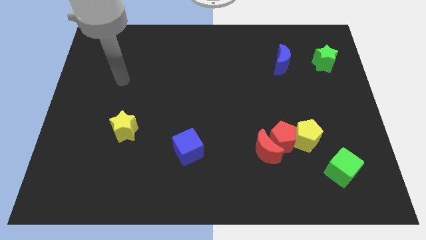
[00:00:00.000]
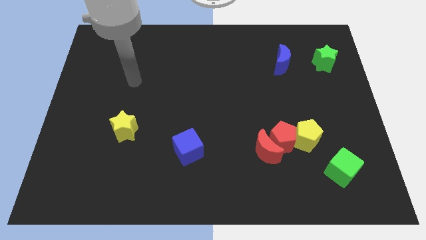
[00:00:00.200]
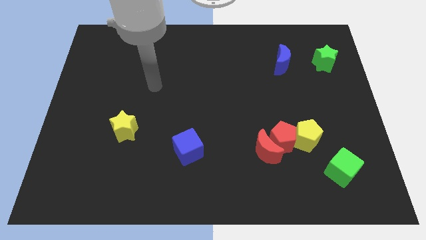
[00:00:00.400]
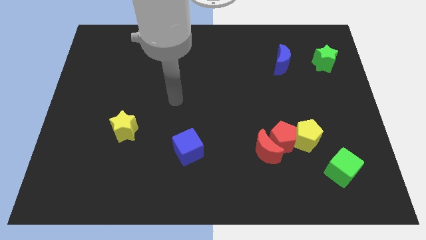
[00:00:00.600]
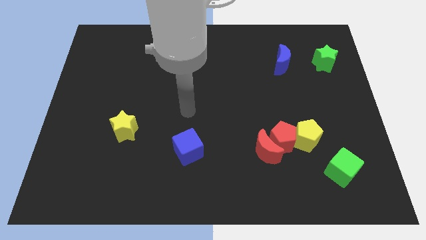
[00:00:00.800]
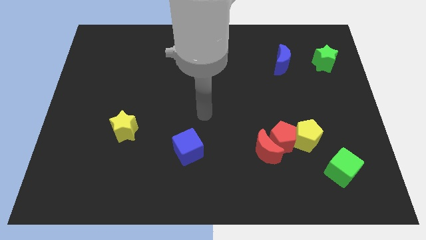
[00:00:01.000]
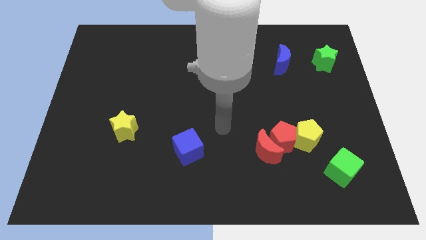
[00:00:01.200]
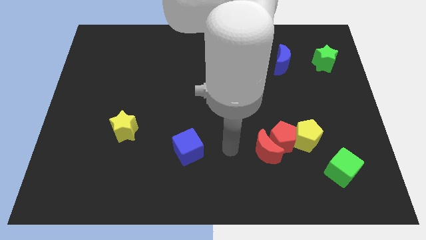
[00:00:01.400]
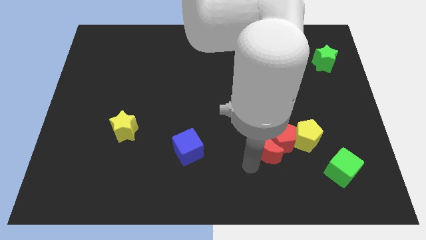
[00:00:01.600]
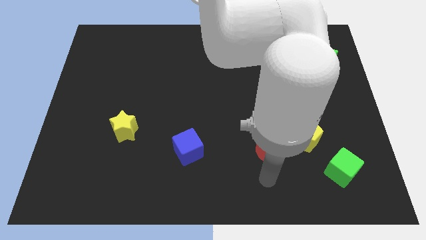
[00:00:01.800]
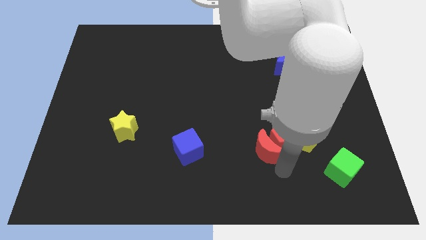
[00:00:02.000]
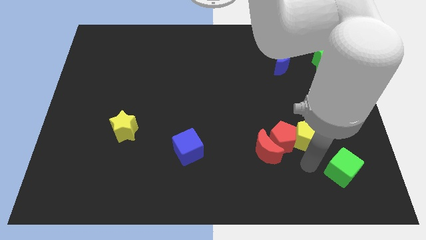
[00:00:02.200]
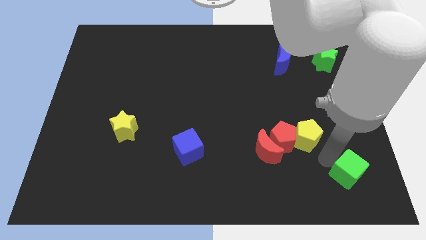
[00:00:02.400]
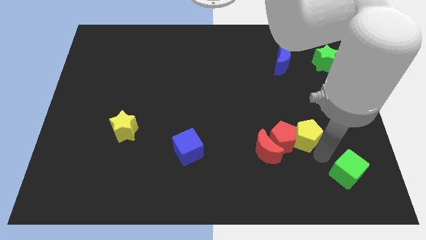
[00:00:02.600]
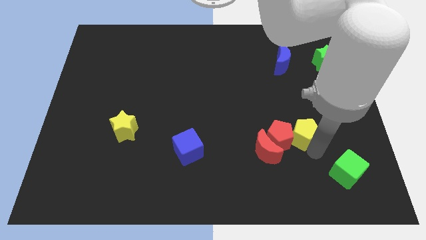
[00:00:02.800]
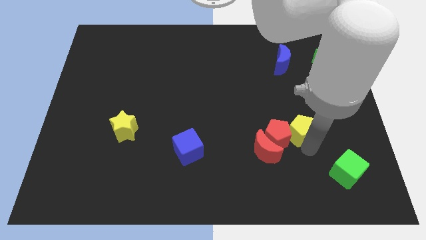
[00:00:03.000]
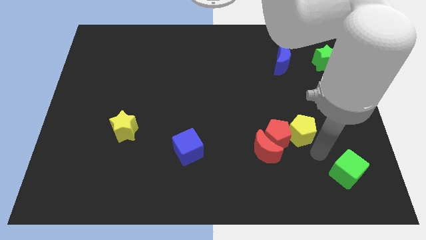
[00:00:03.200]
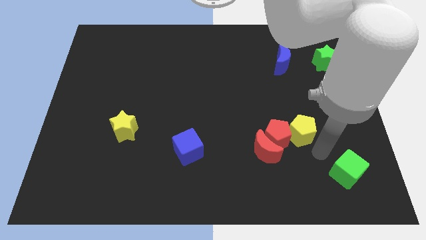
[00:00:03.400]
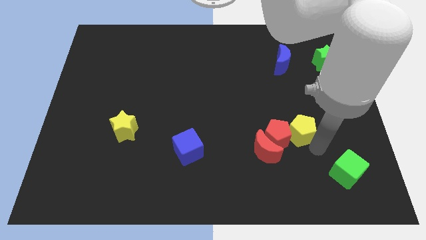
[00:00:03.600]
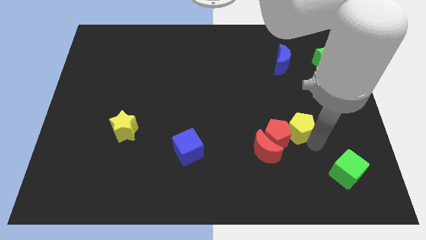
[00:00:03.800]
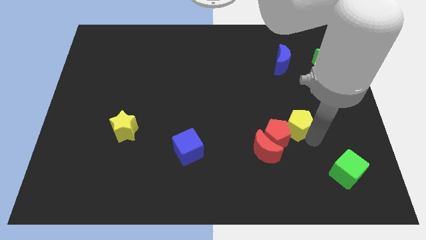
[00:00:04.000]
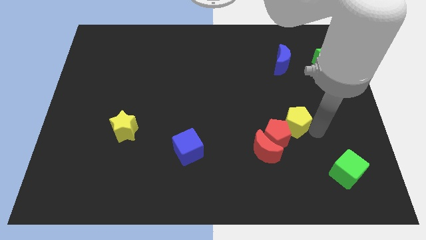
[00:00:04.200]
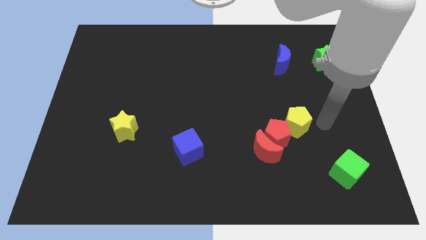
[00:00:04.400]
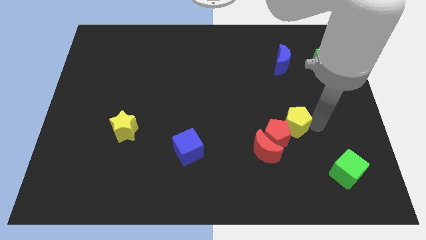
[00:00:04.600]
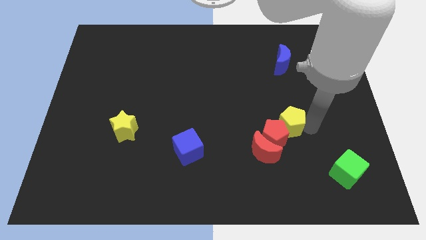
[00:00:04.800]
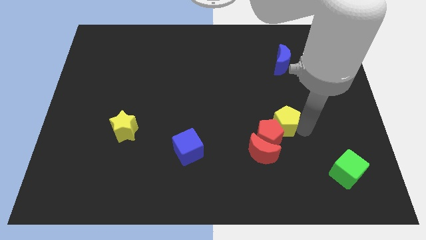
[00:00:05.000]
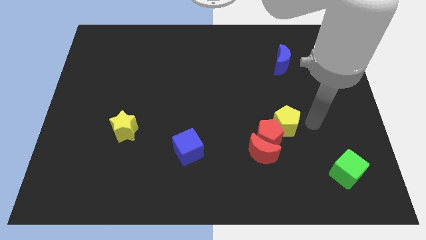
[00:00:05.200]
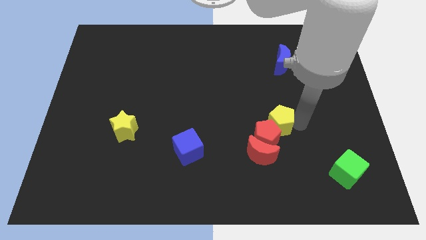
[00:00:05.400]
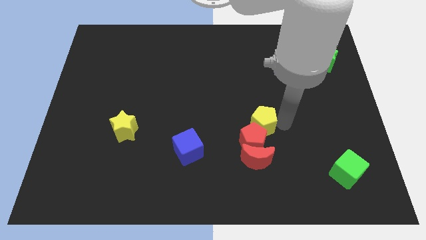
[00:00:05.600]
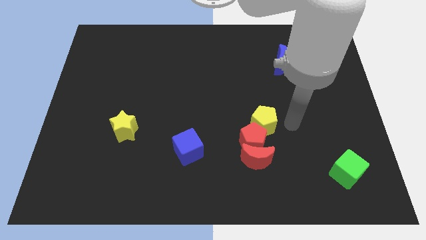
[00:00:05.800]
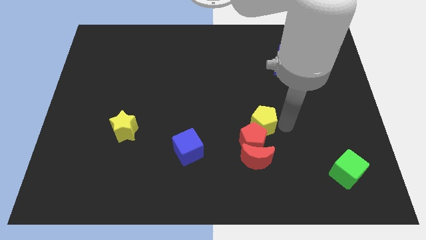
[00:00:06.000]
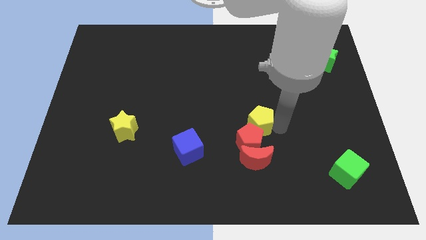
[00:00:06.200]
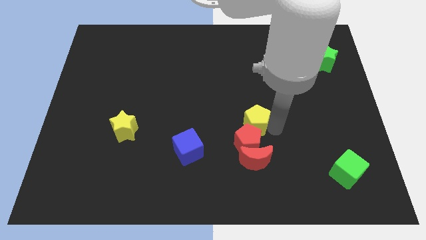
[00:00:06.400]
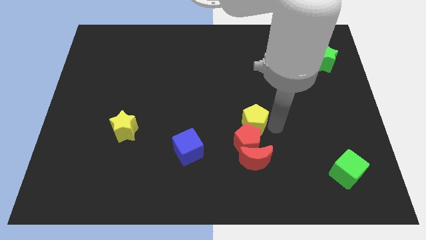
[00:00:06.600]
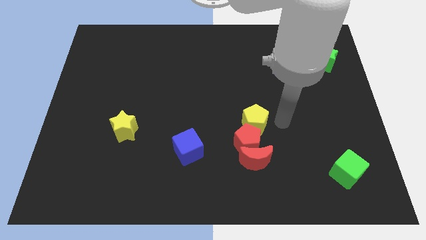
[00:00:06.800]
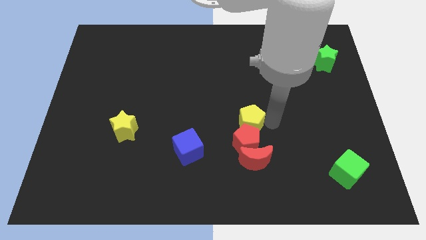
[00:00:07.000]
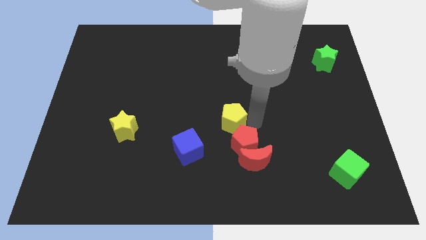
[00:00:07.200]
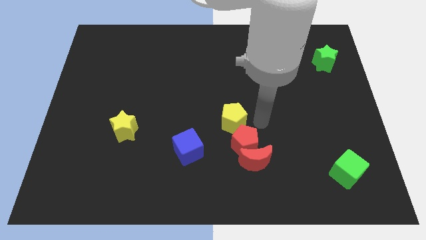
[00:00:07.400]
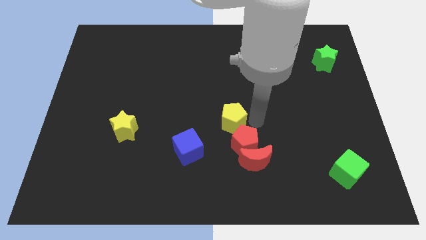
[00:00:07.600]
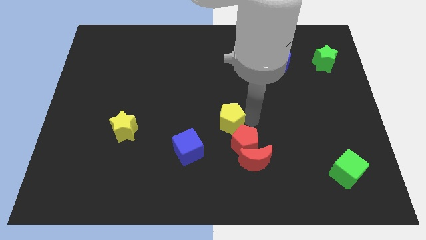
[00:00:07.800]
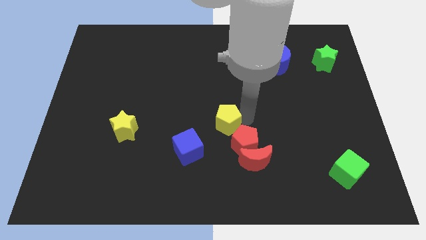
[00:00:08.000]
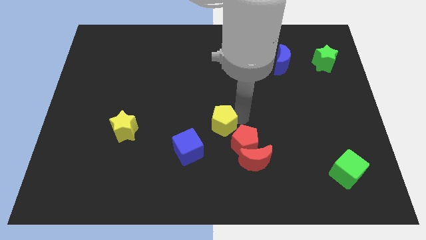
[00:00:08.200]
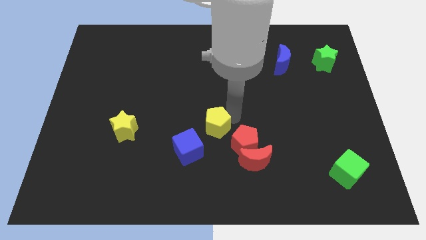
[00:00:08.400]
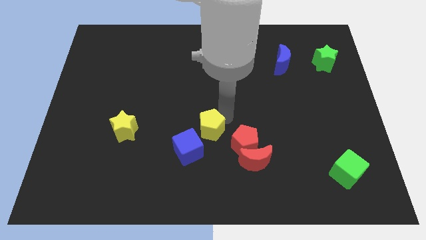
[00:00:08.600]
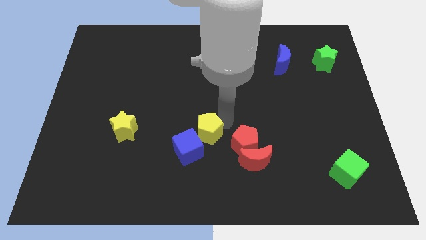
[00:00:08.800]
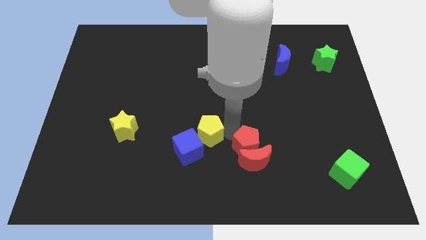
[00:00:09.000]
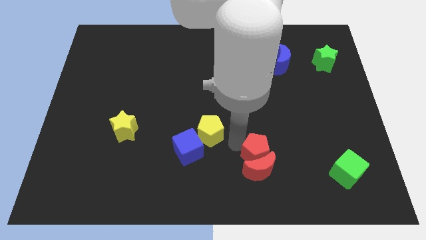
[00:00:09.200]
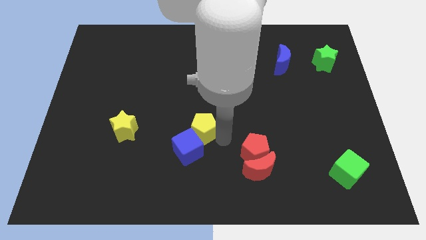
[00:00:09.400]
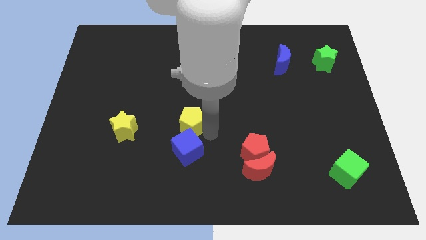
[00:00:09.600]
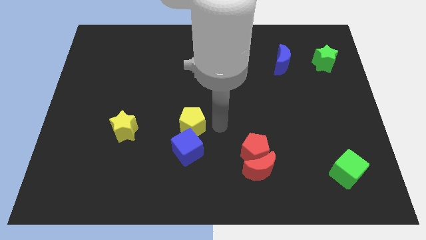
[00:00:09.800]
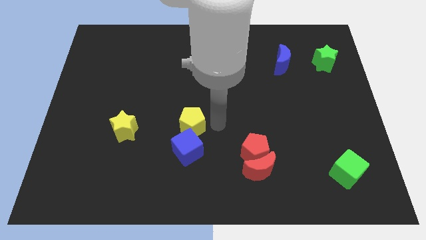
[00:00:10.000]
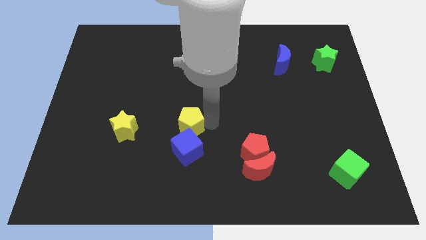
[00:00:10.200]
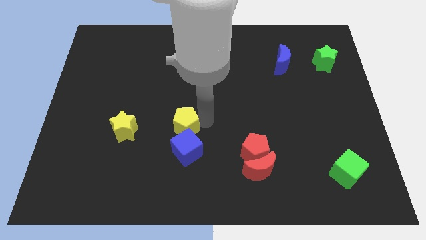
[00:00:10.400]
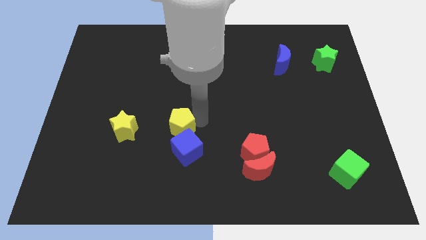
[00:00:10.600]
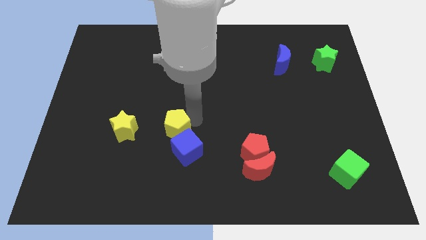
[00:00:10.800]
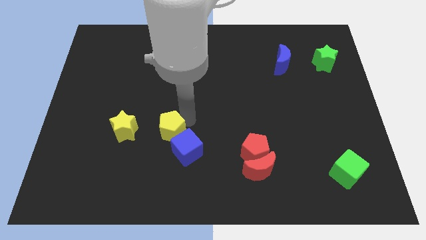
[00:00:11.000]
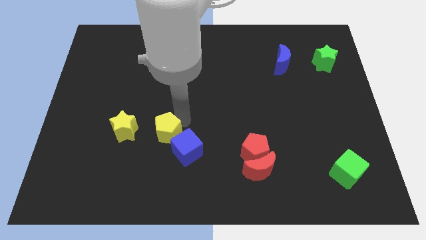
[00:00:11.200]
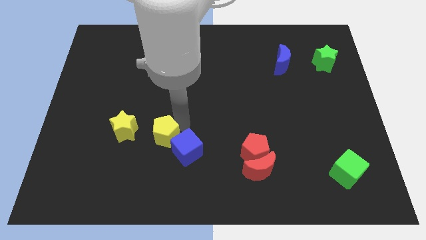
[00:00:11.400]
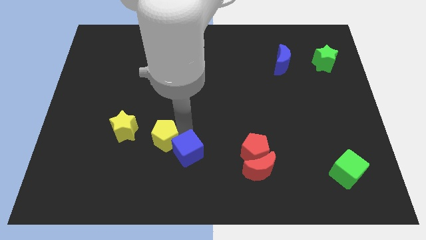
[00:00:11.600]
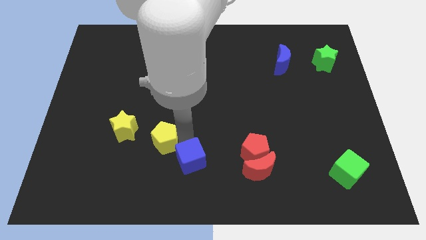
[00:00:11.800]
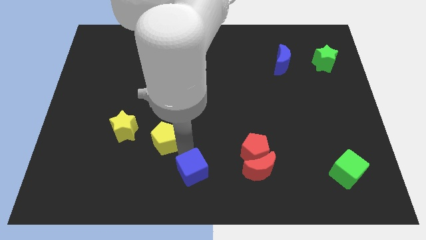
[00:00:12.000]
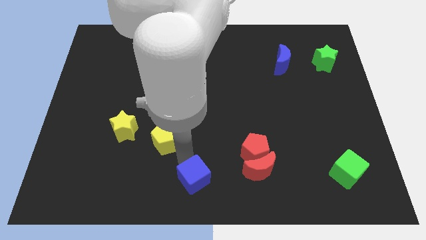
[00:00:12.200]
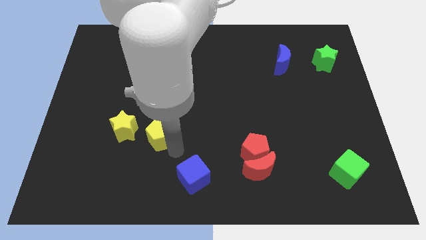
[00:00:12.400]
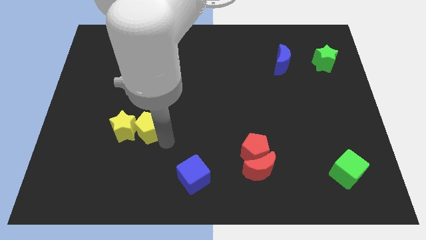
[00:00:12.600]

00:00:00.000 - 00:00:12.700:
slide the yellow pentagon to the yellow star
